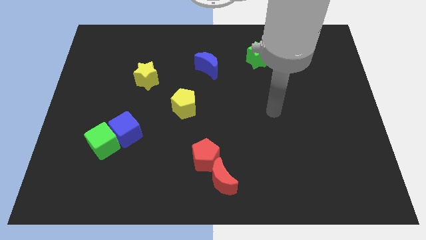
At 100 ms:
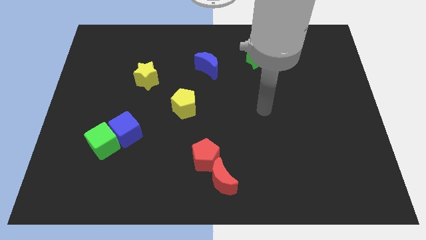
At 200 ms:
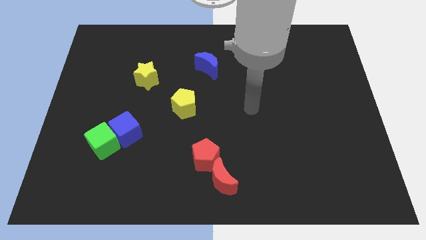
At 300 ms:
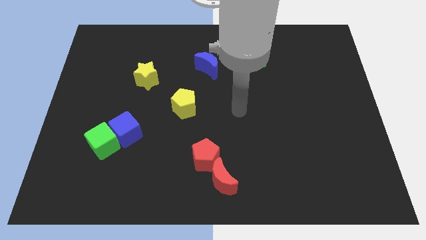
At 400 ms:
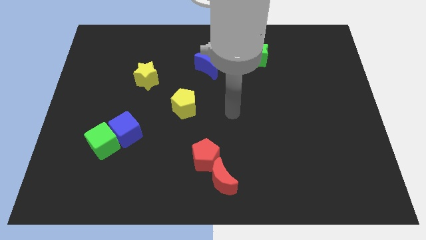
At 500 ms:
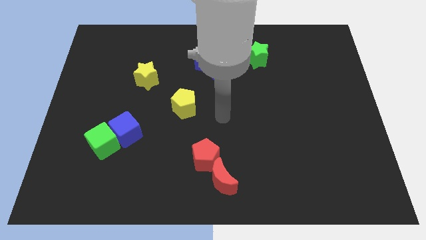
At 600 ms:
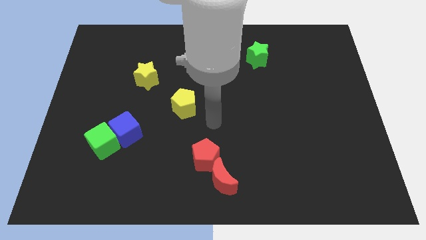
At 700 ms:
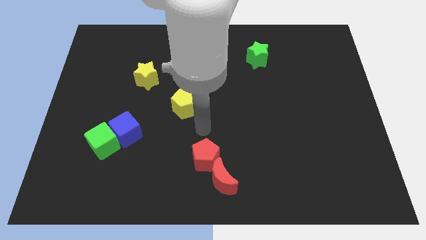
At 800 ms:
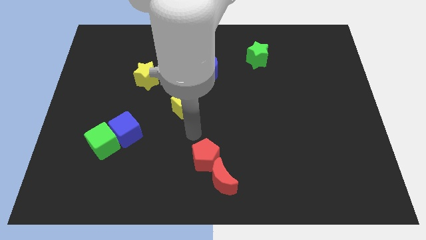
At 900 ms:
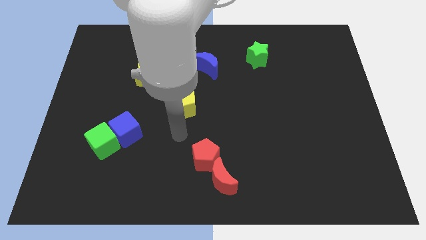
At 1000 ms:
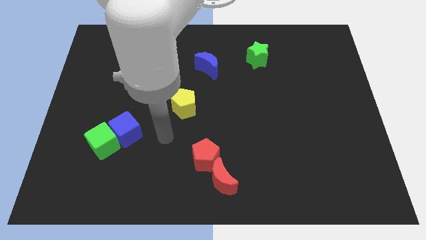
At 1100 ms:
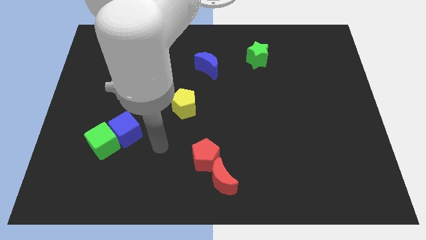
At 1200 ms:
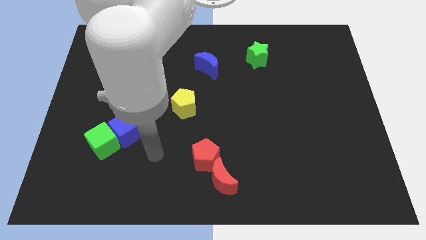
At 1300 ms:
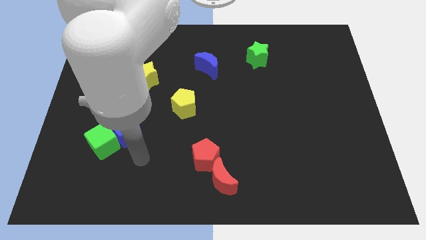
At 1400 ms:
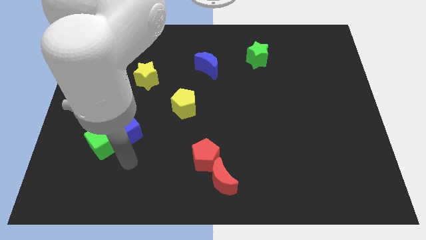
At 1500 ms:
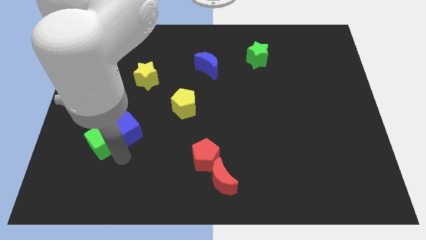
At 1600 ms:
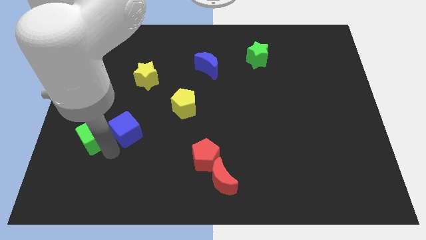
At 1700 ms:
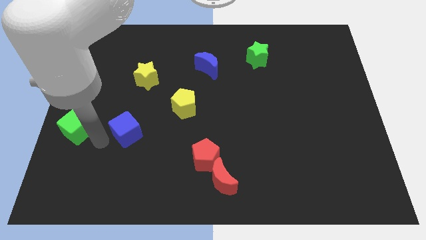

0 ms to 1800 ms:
pull the blue cube apart from the green cube

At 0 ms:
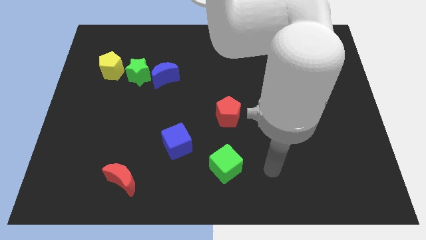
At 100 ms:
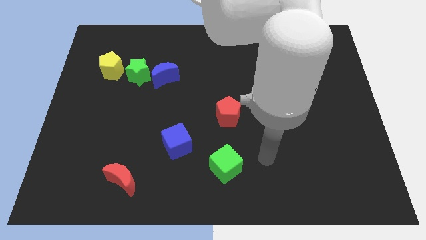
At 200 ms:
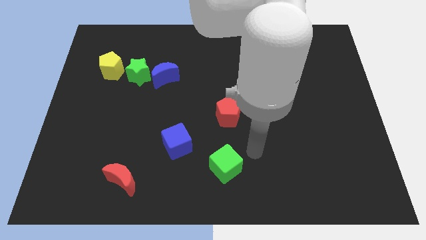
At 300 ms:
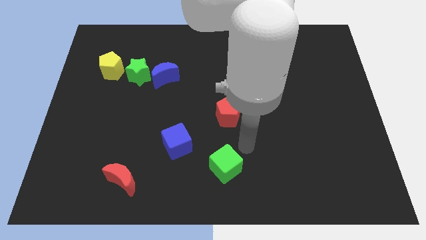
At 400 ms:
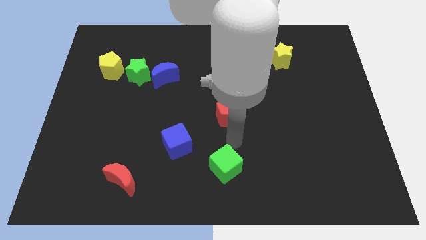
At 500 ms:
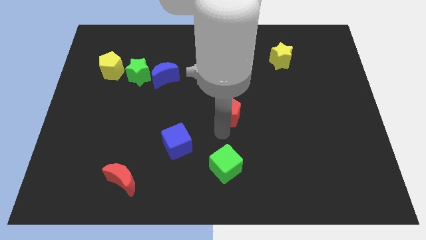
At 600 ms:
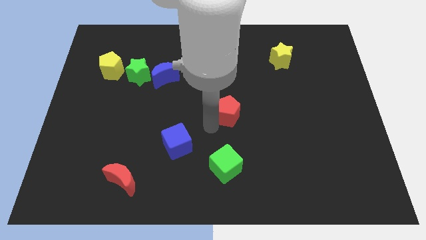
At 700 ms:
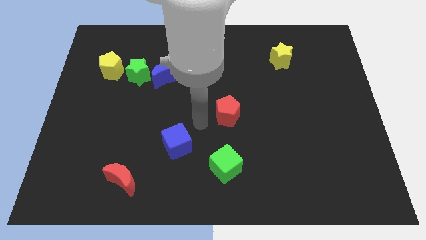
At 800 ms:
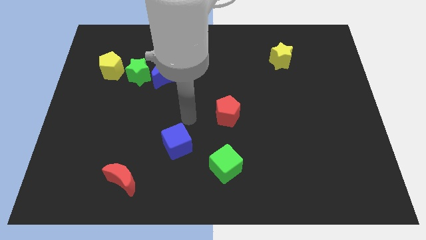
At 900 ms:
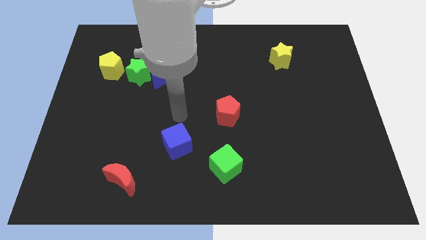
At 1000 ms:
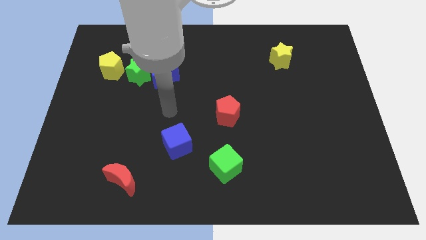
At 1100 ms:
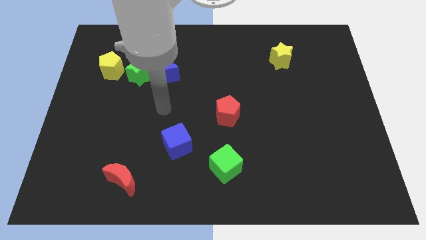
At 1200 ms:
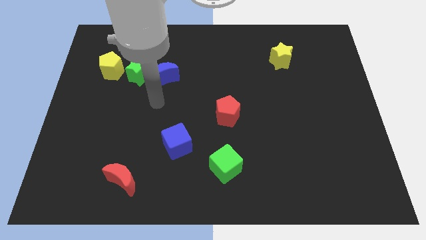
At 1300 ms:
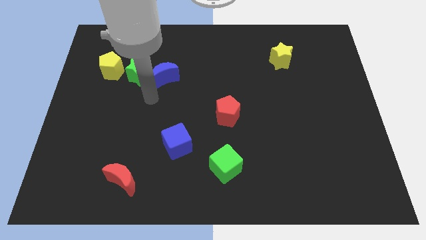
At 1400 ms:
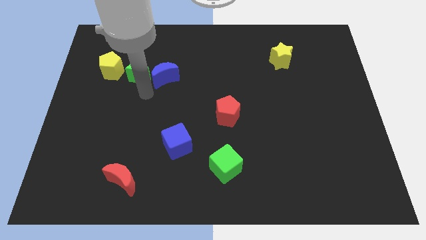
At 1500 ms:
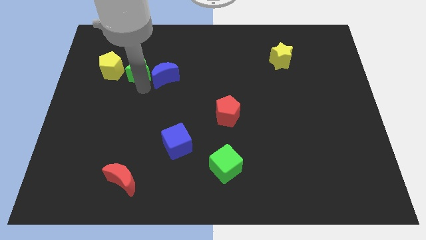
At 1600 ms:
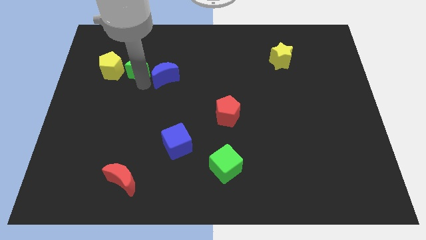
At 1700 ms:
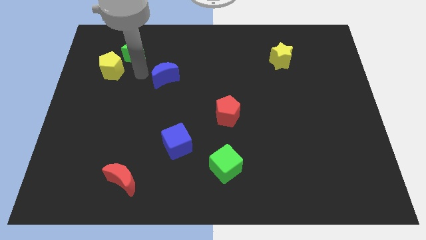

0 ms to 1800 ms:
separate the blue moon from the green star

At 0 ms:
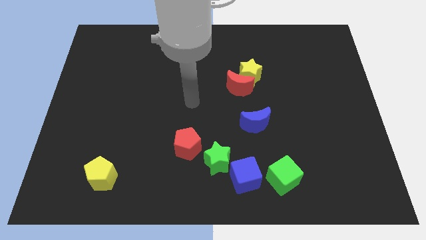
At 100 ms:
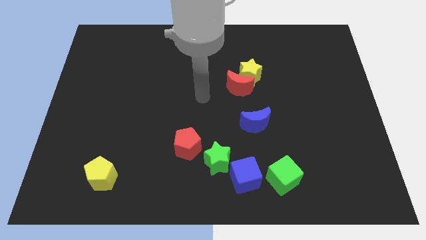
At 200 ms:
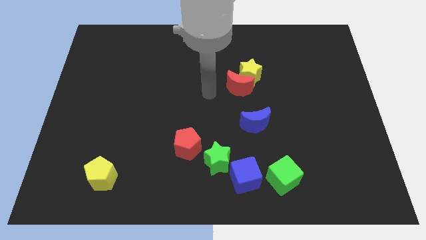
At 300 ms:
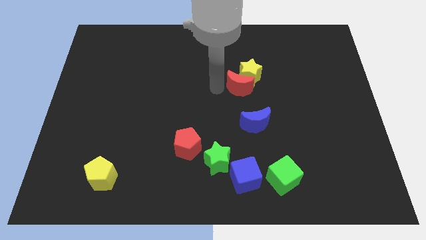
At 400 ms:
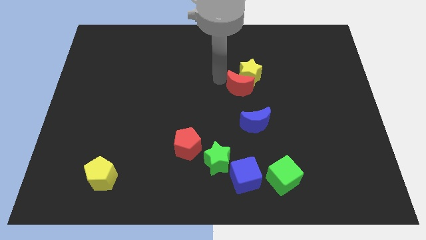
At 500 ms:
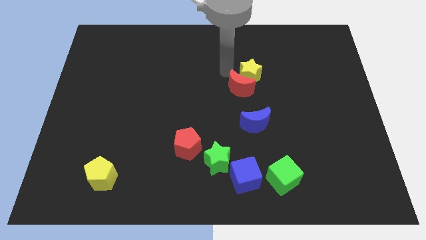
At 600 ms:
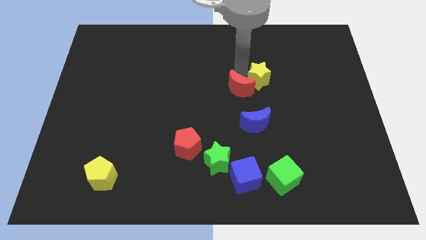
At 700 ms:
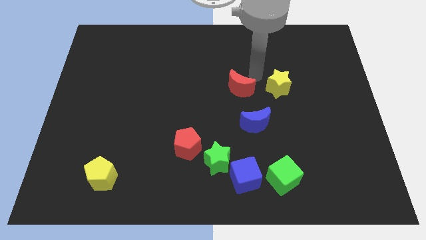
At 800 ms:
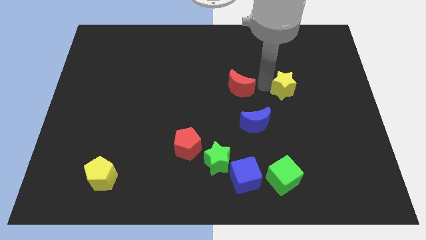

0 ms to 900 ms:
separate the red moon from the yellow star

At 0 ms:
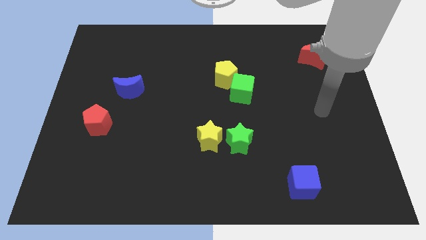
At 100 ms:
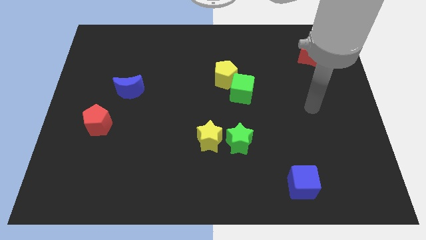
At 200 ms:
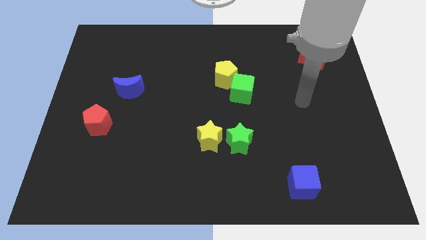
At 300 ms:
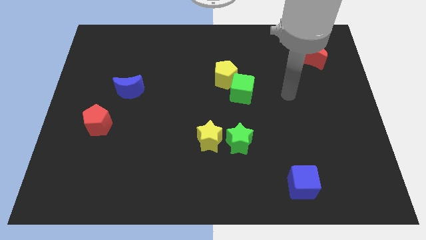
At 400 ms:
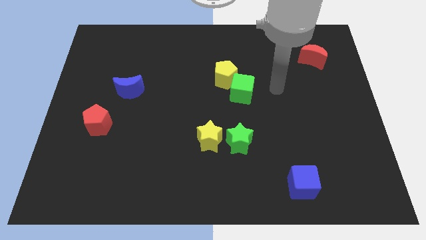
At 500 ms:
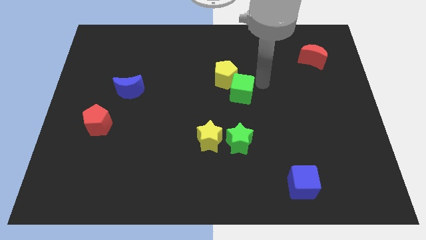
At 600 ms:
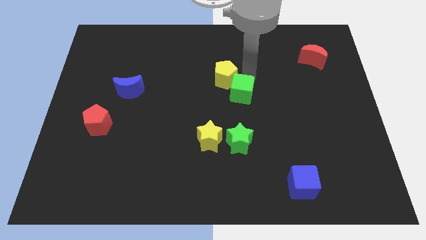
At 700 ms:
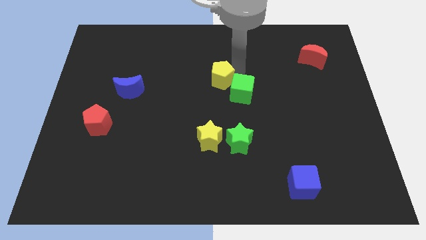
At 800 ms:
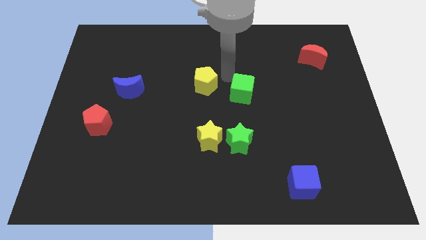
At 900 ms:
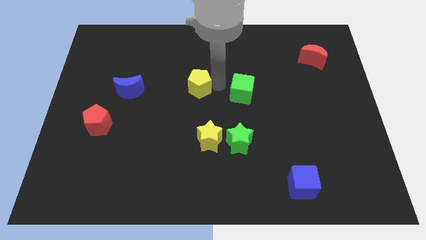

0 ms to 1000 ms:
move the green cube away from the yellow pentagon

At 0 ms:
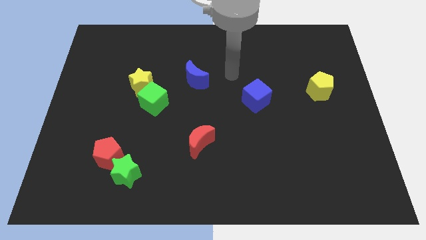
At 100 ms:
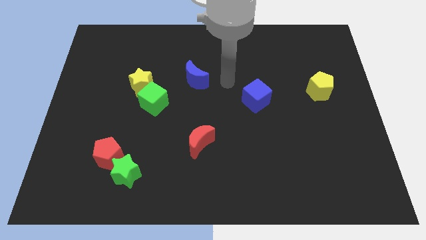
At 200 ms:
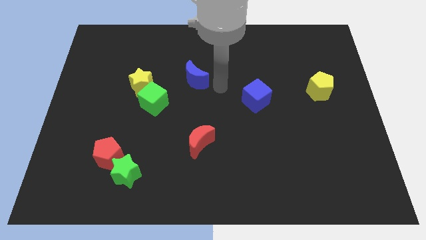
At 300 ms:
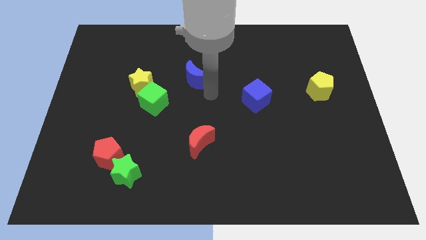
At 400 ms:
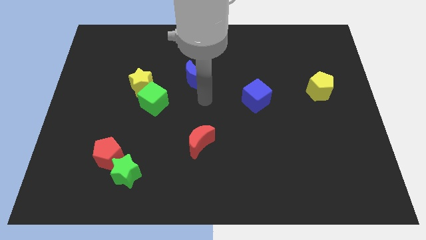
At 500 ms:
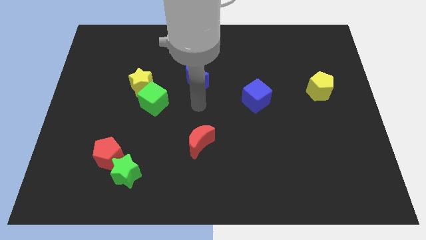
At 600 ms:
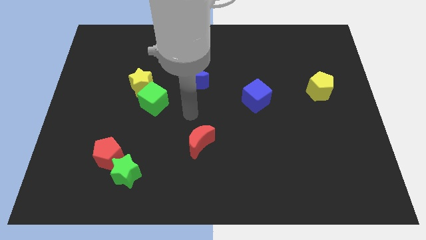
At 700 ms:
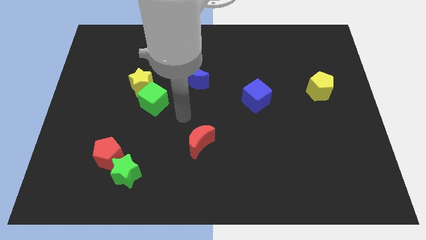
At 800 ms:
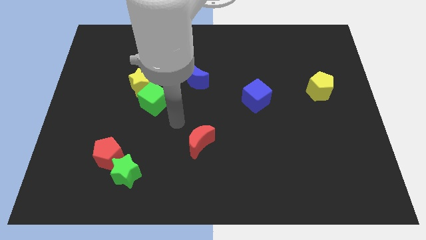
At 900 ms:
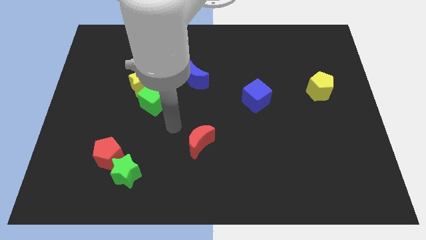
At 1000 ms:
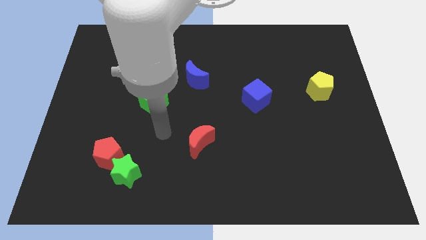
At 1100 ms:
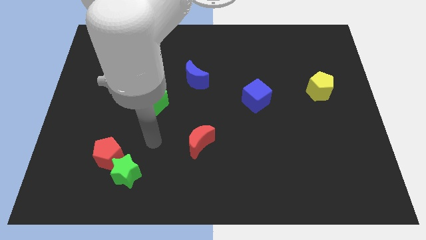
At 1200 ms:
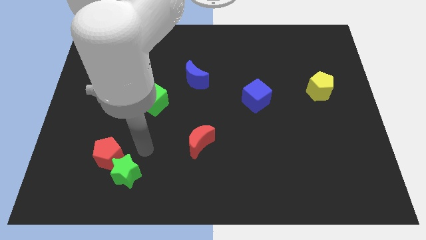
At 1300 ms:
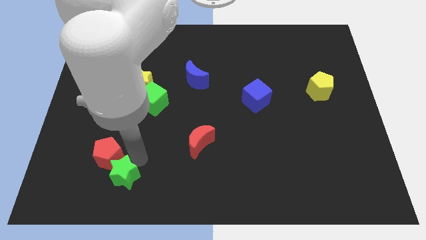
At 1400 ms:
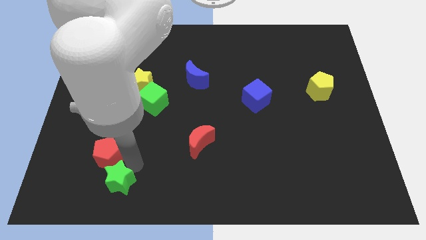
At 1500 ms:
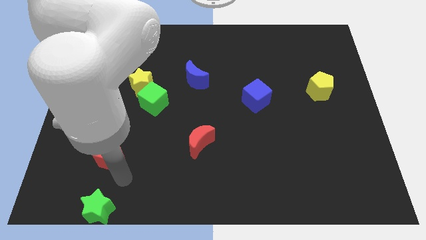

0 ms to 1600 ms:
separate the red pentagon from the green star

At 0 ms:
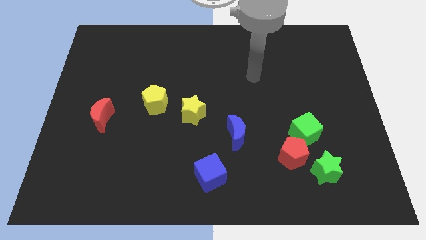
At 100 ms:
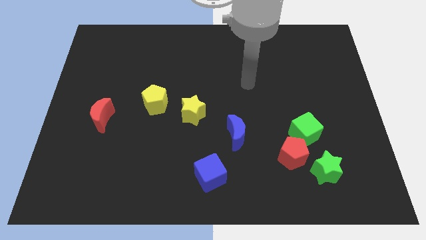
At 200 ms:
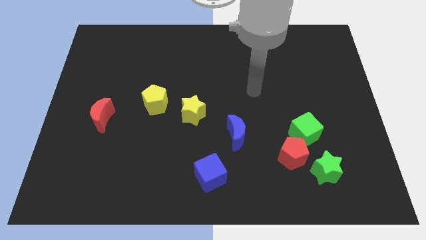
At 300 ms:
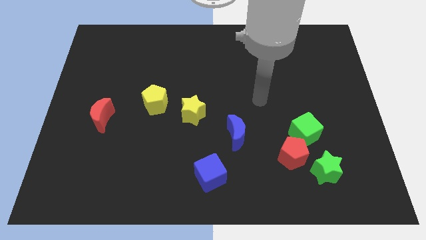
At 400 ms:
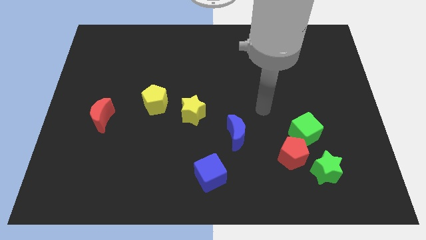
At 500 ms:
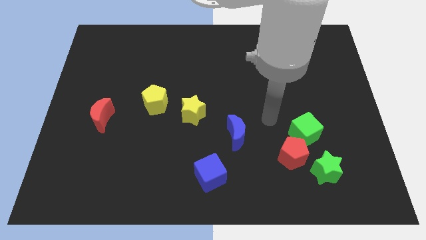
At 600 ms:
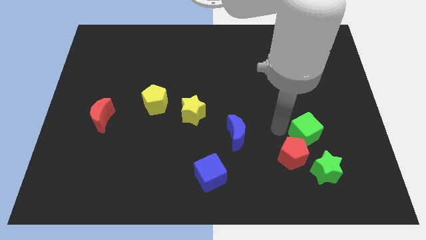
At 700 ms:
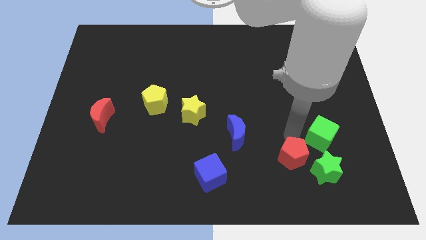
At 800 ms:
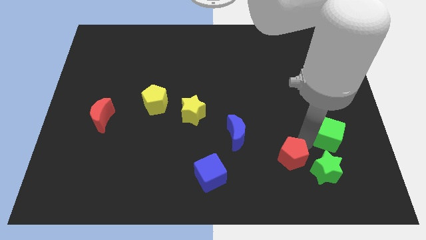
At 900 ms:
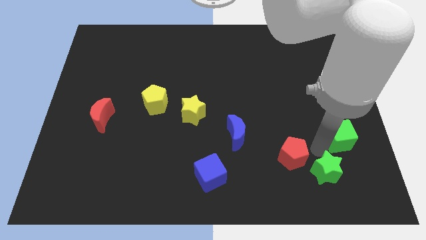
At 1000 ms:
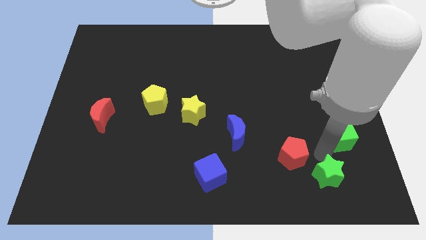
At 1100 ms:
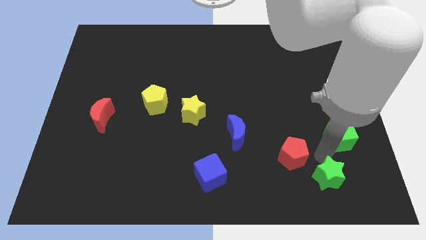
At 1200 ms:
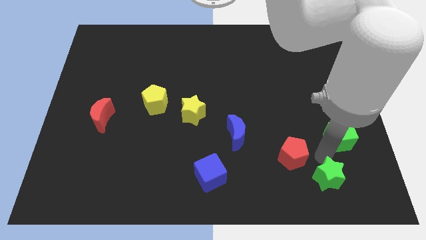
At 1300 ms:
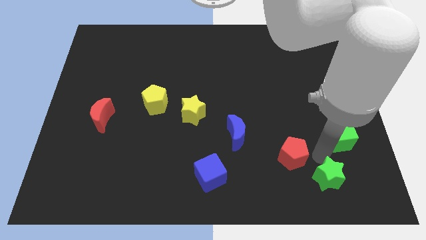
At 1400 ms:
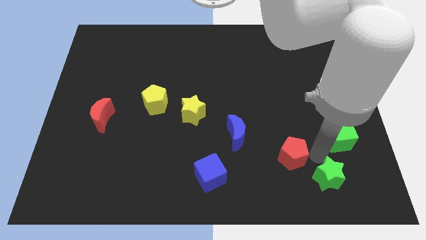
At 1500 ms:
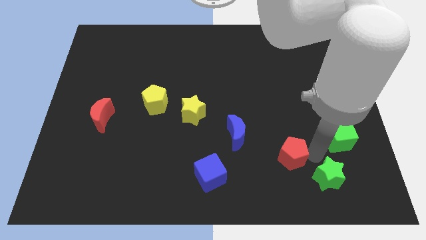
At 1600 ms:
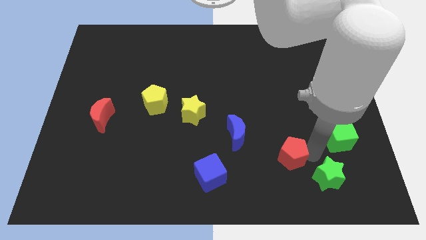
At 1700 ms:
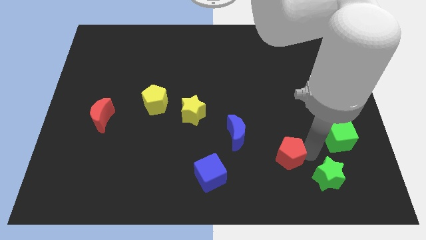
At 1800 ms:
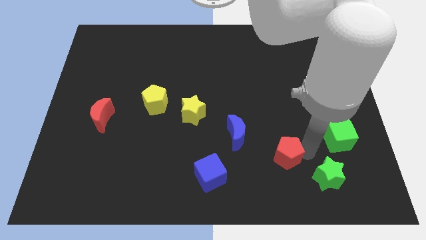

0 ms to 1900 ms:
move the red pentagon away from the green cube and green star

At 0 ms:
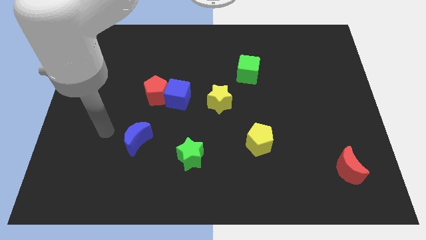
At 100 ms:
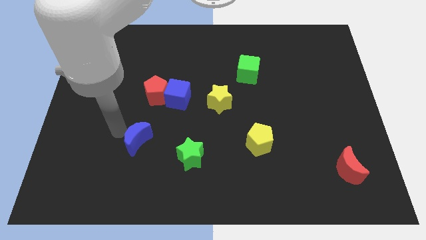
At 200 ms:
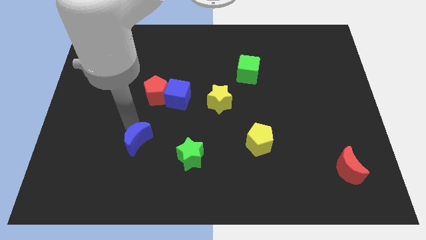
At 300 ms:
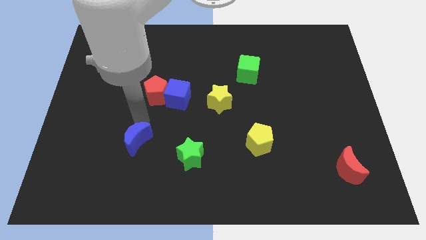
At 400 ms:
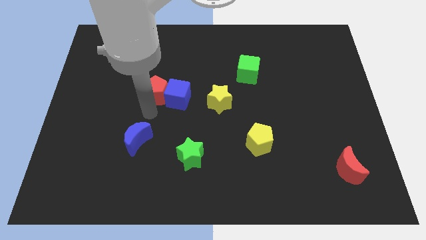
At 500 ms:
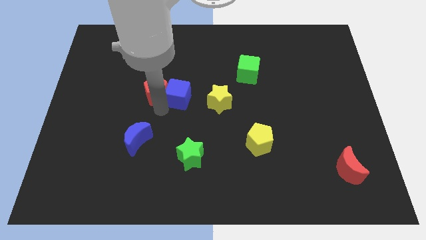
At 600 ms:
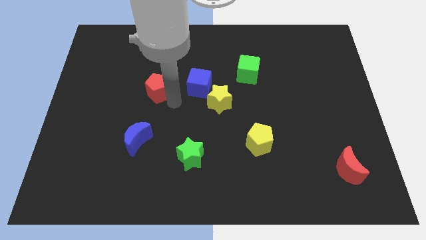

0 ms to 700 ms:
pull the red pentagon apart from the blue cube
